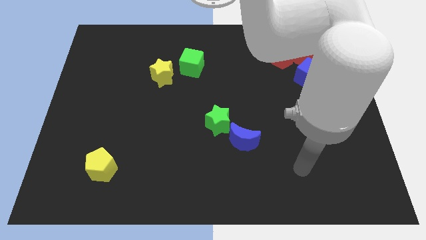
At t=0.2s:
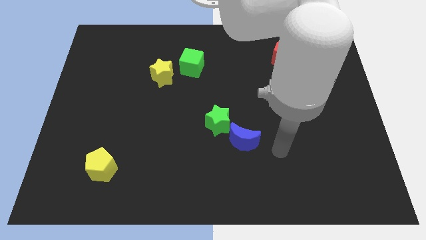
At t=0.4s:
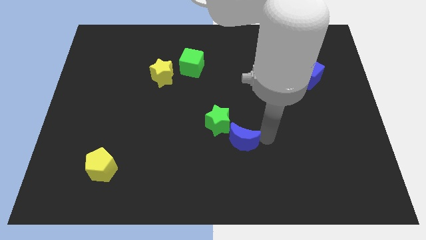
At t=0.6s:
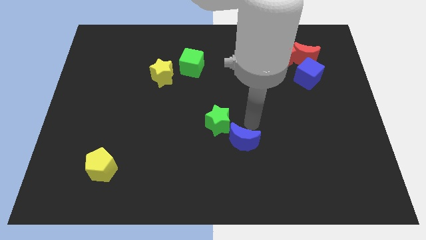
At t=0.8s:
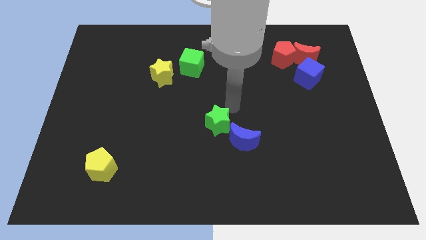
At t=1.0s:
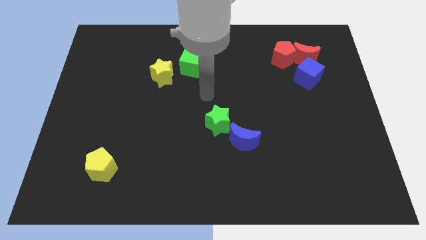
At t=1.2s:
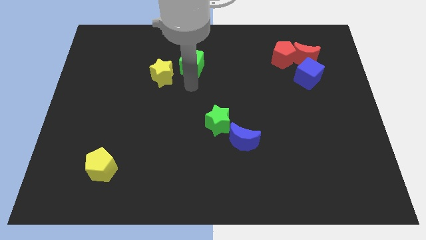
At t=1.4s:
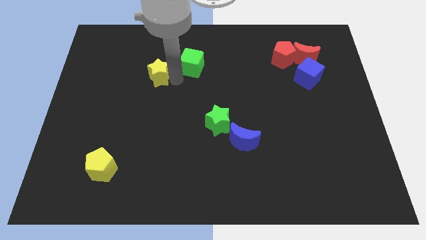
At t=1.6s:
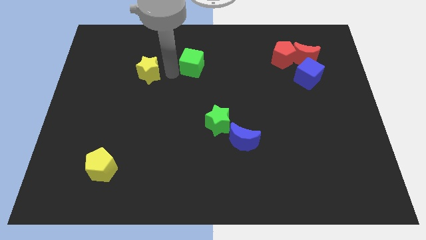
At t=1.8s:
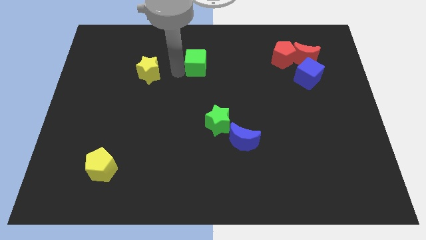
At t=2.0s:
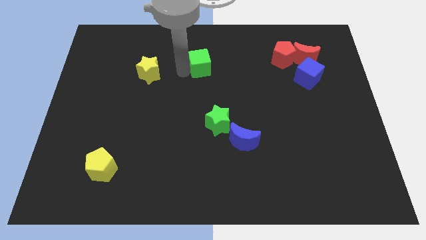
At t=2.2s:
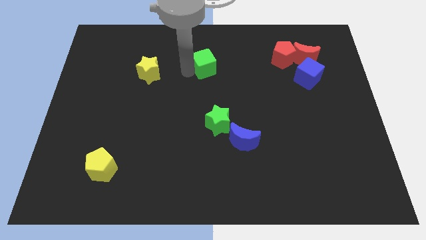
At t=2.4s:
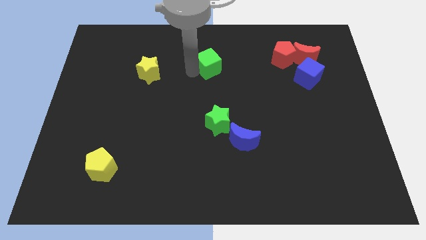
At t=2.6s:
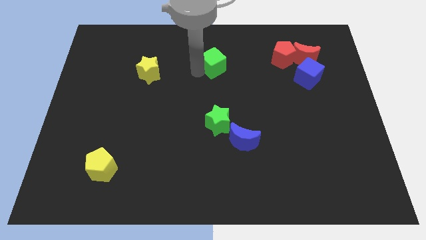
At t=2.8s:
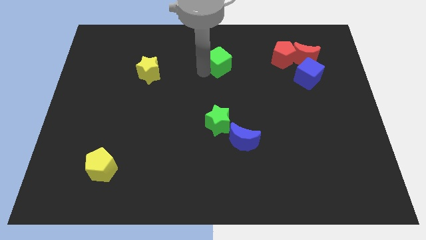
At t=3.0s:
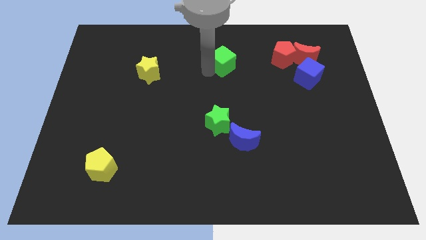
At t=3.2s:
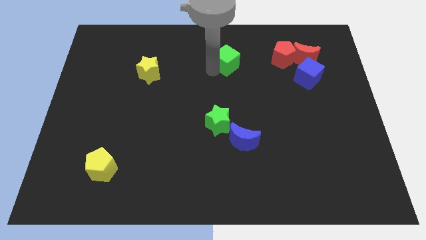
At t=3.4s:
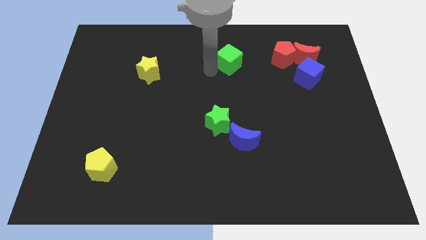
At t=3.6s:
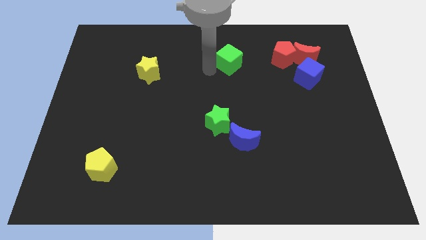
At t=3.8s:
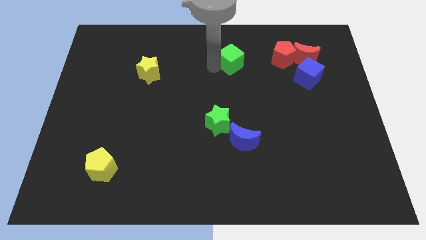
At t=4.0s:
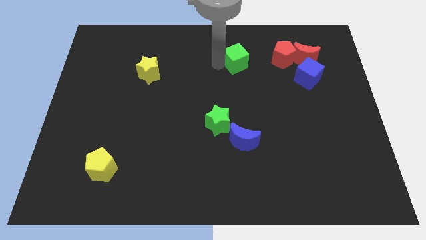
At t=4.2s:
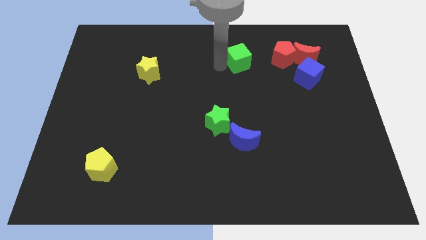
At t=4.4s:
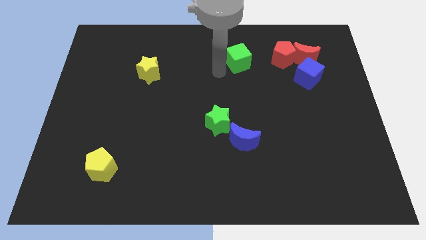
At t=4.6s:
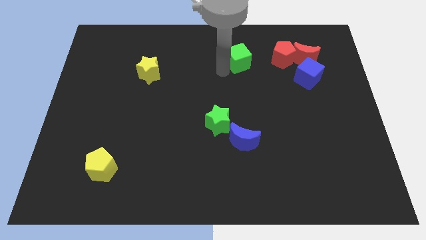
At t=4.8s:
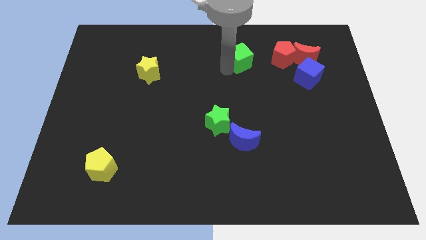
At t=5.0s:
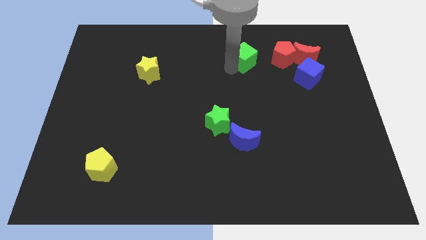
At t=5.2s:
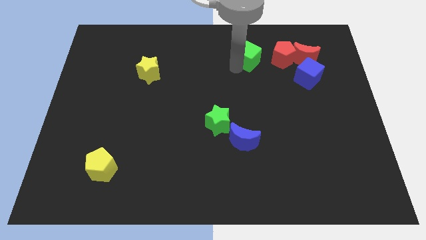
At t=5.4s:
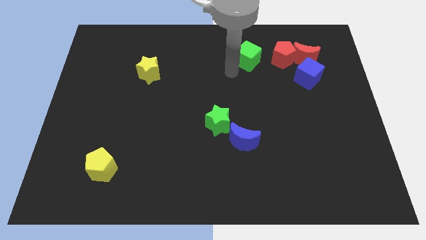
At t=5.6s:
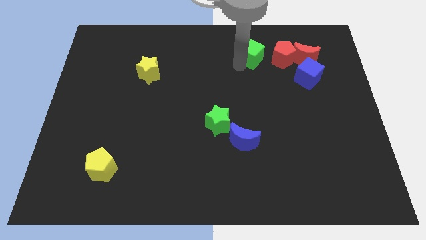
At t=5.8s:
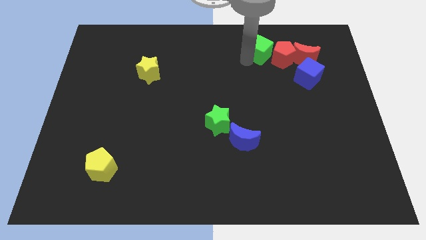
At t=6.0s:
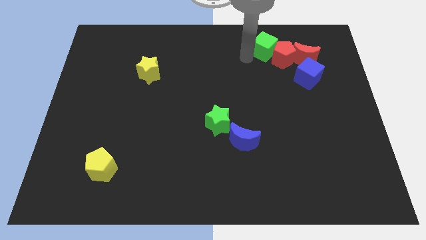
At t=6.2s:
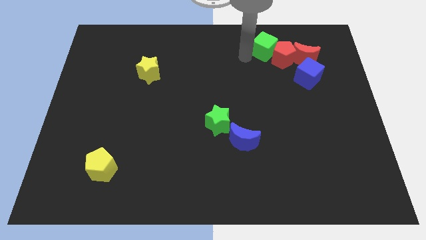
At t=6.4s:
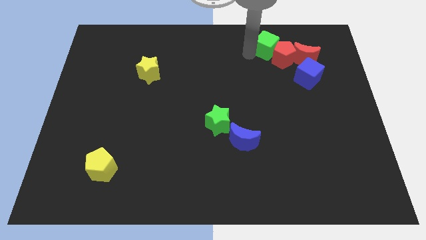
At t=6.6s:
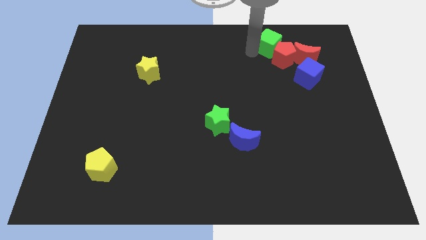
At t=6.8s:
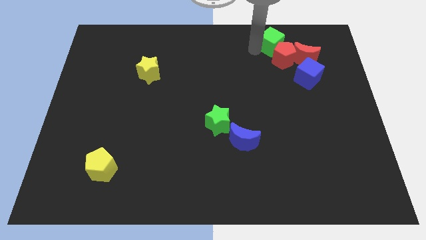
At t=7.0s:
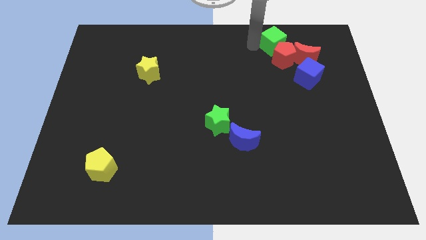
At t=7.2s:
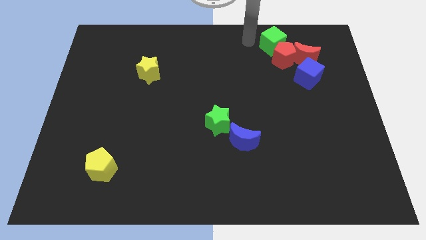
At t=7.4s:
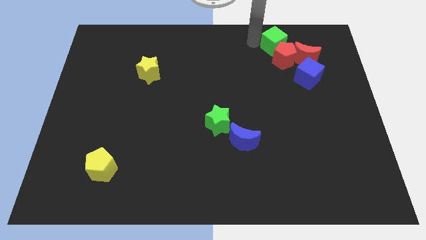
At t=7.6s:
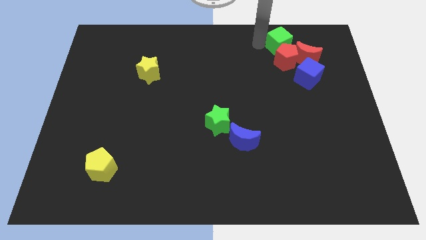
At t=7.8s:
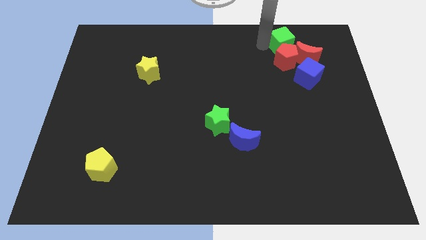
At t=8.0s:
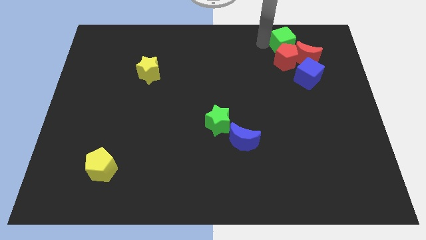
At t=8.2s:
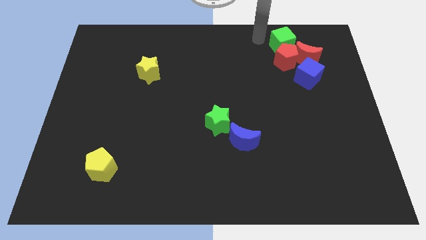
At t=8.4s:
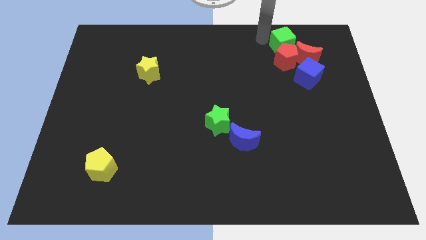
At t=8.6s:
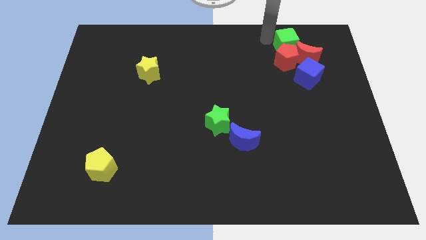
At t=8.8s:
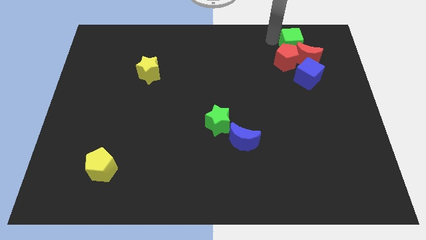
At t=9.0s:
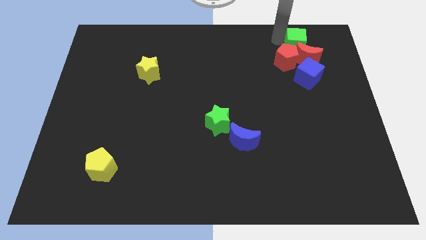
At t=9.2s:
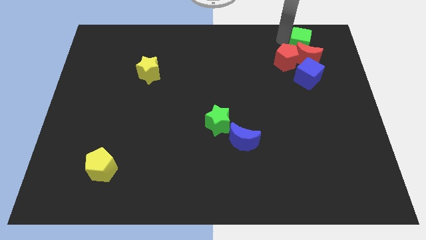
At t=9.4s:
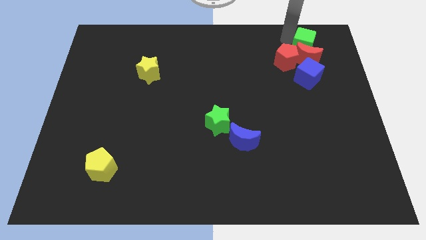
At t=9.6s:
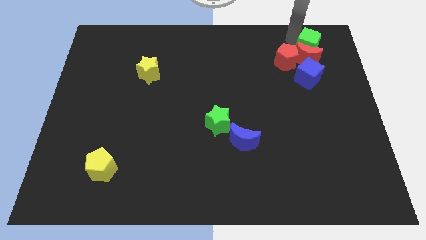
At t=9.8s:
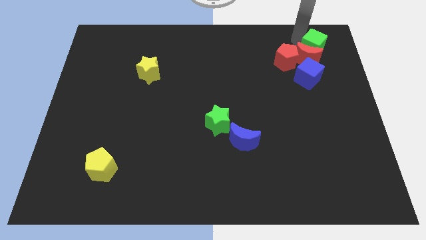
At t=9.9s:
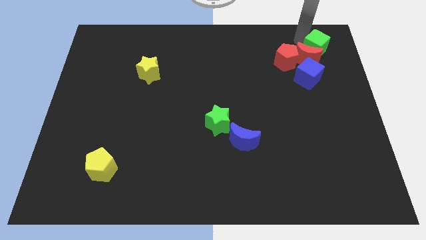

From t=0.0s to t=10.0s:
slide the green cube to the right side of the red pentagon

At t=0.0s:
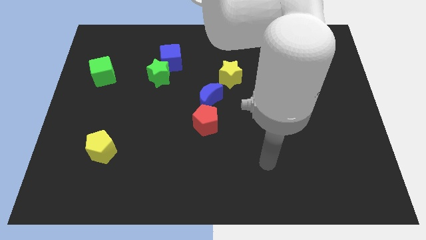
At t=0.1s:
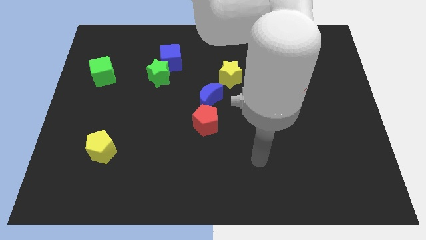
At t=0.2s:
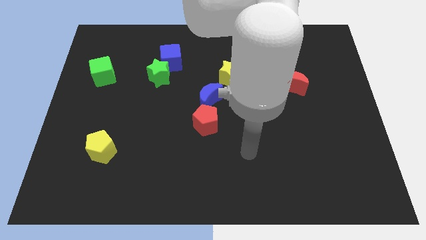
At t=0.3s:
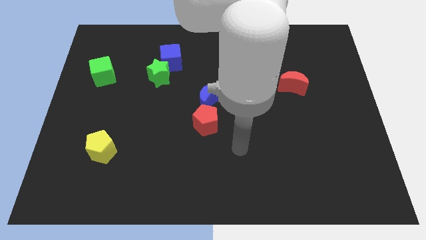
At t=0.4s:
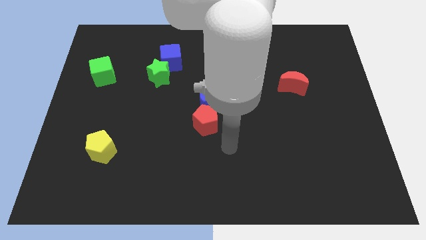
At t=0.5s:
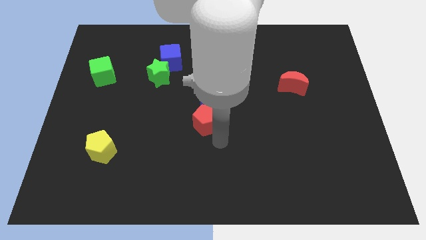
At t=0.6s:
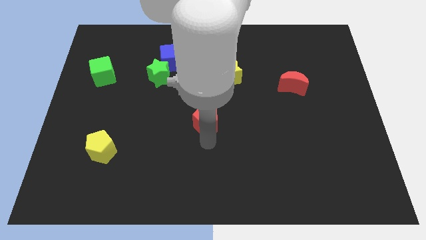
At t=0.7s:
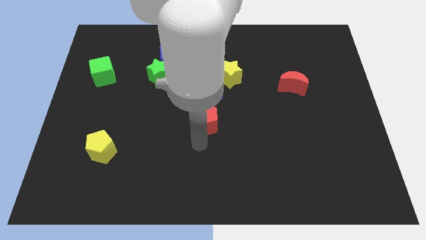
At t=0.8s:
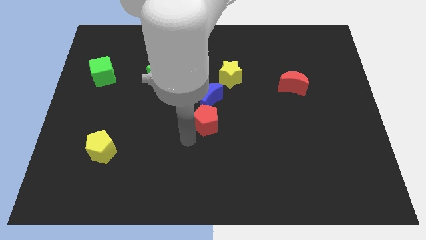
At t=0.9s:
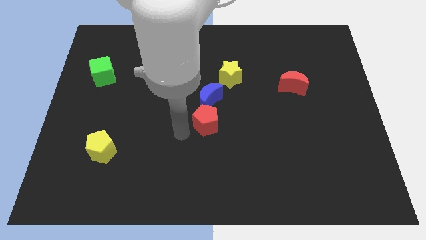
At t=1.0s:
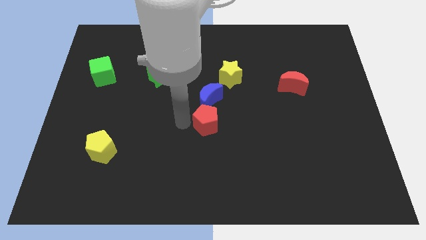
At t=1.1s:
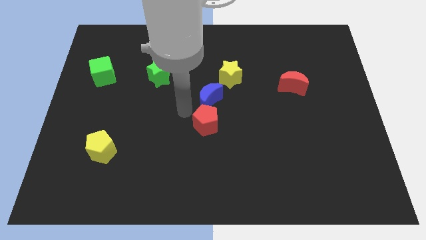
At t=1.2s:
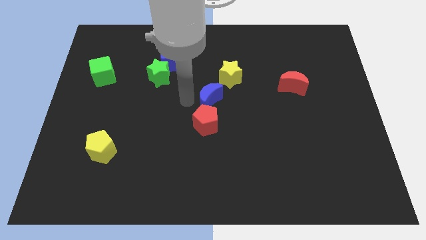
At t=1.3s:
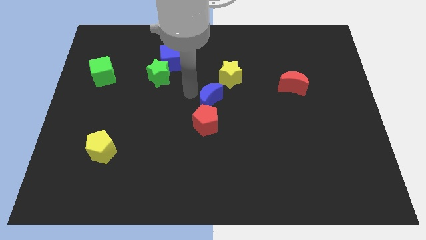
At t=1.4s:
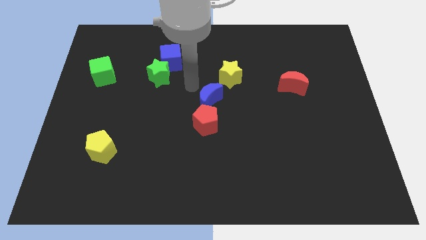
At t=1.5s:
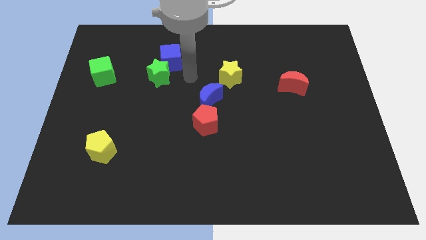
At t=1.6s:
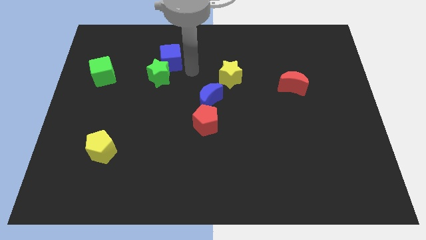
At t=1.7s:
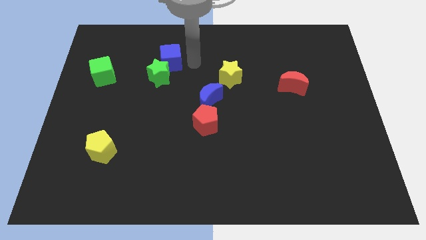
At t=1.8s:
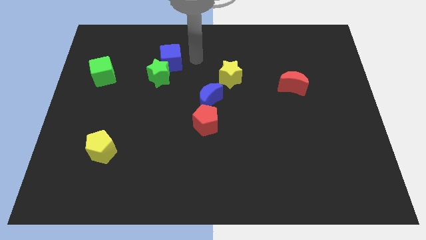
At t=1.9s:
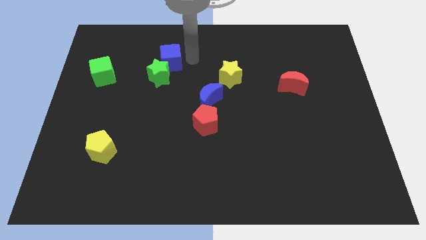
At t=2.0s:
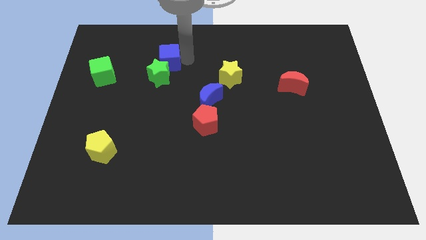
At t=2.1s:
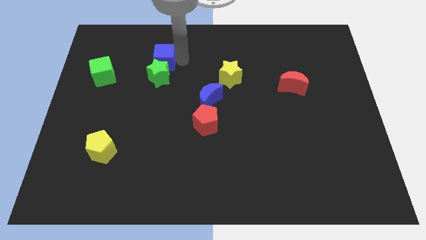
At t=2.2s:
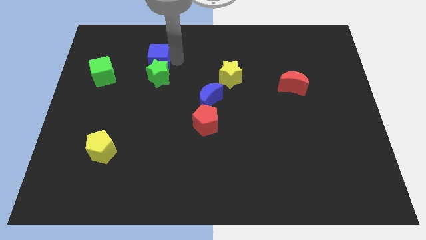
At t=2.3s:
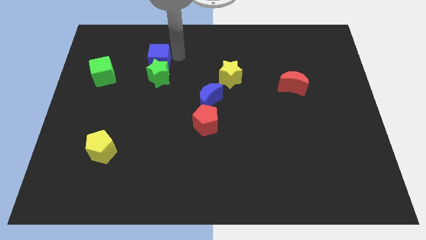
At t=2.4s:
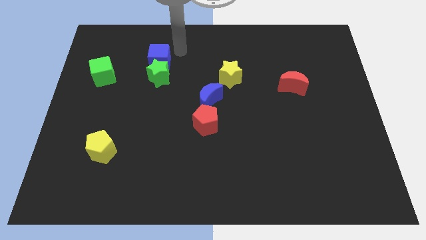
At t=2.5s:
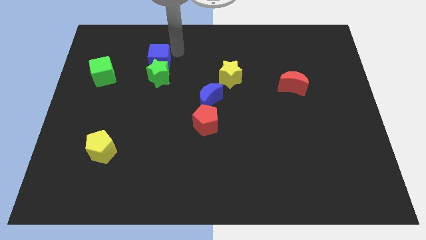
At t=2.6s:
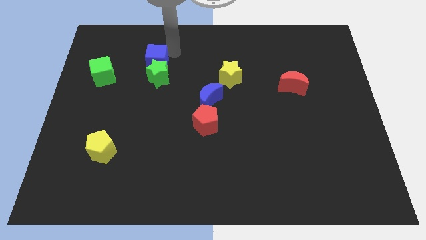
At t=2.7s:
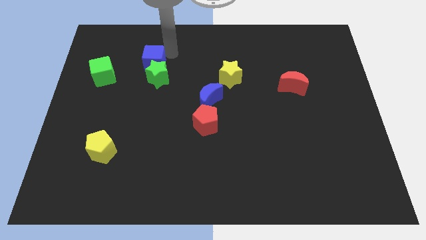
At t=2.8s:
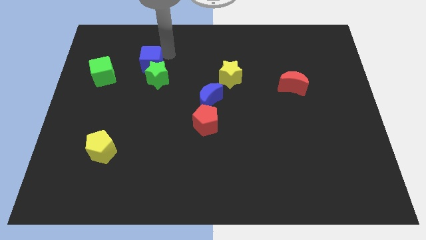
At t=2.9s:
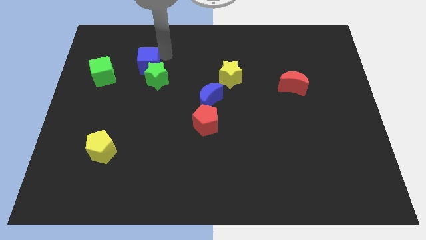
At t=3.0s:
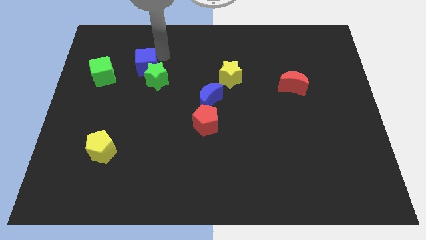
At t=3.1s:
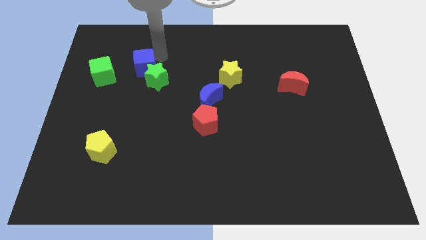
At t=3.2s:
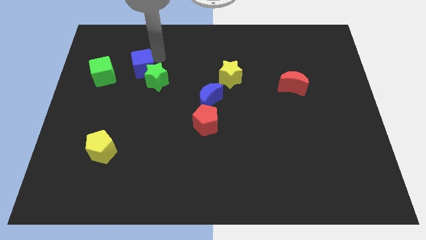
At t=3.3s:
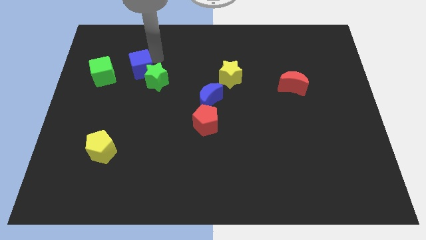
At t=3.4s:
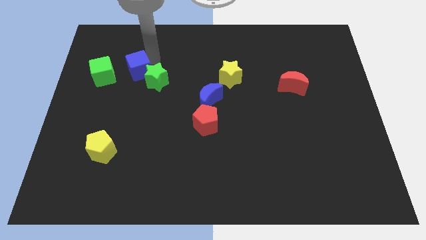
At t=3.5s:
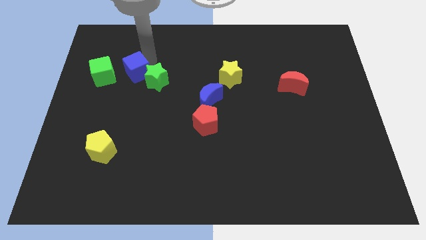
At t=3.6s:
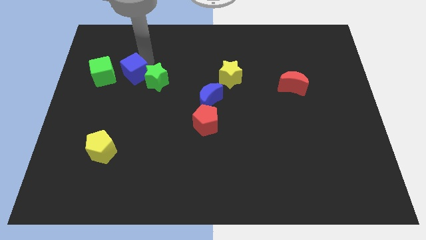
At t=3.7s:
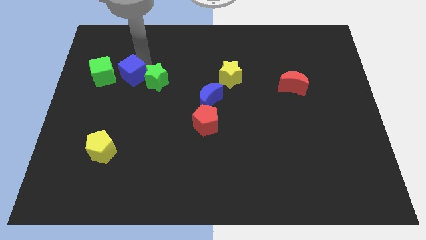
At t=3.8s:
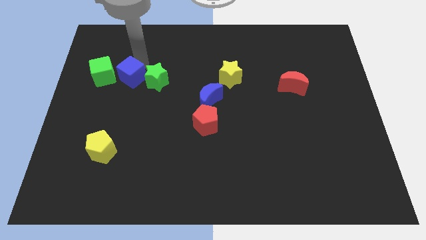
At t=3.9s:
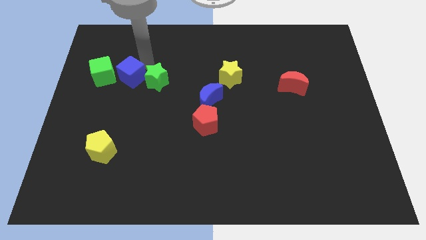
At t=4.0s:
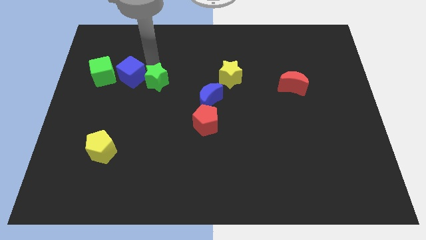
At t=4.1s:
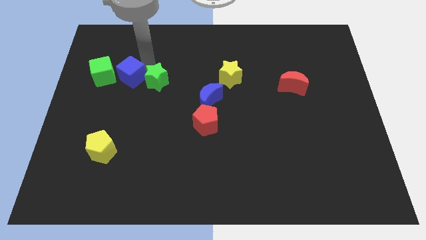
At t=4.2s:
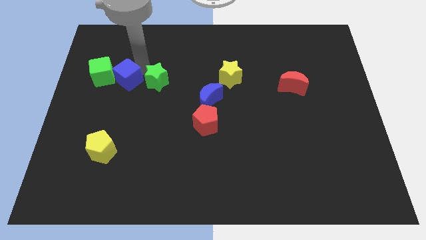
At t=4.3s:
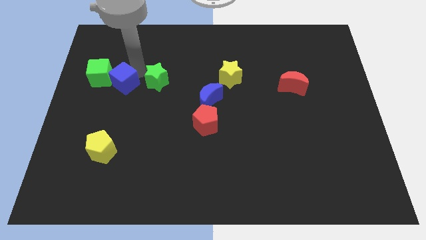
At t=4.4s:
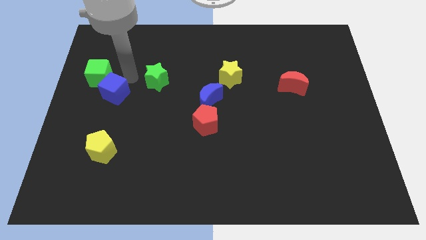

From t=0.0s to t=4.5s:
put the blue cube below the green cube
